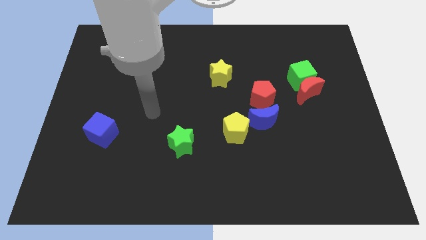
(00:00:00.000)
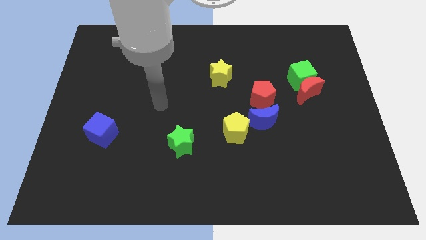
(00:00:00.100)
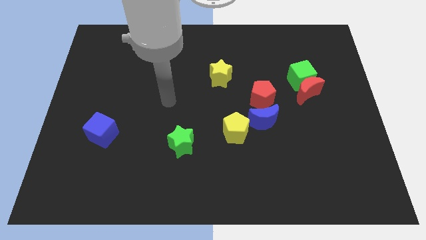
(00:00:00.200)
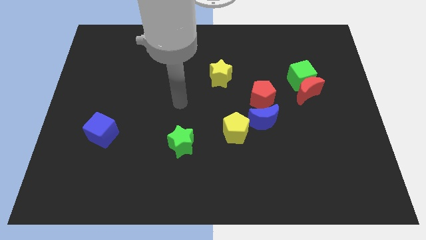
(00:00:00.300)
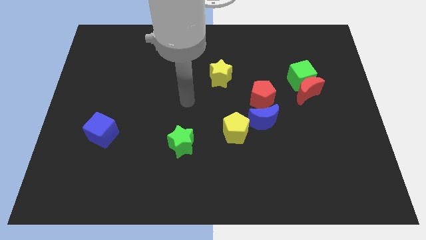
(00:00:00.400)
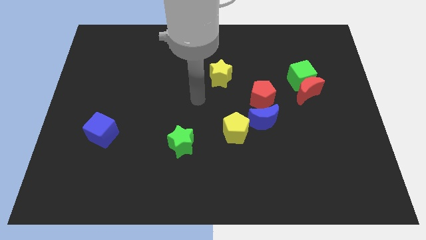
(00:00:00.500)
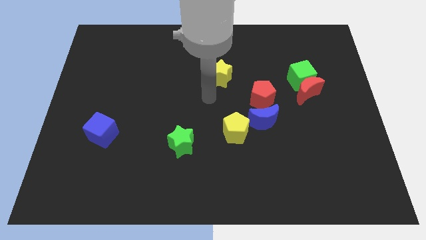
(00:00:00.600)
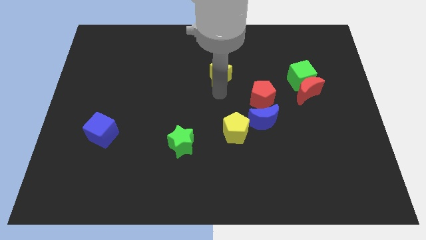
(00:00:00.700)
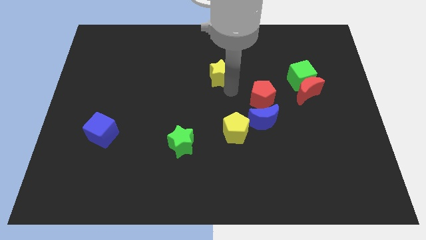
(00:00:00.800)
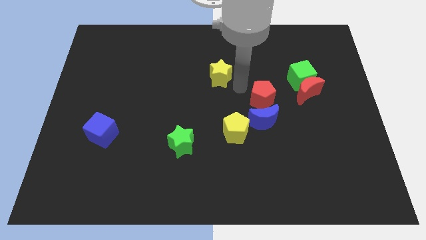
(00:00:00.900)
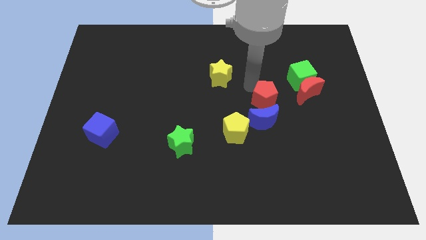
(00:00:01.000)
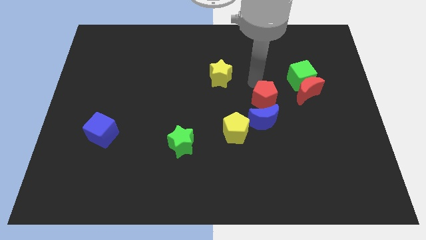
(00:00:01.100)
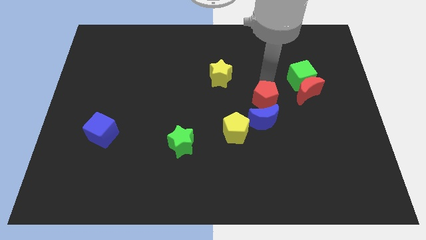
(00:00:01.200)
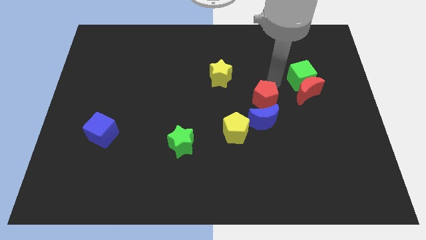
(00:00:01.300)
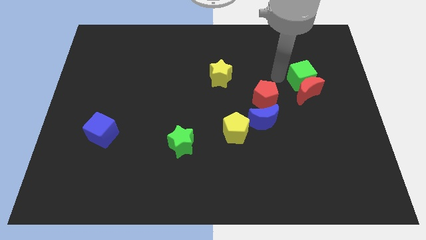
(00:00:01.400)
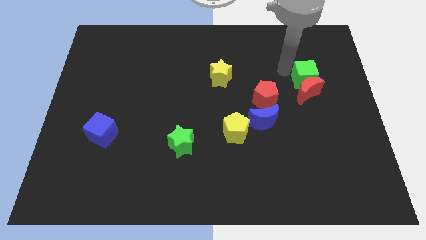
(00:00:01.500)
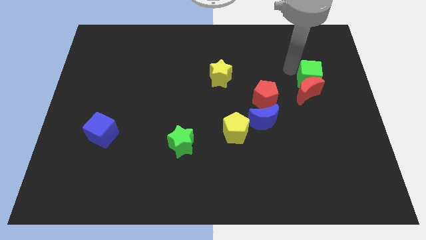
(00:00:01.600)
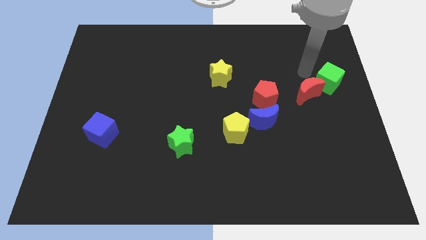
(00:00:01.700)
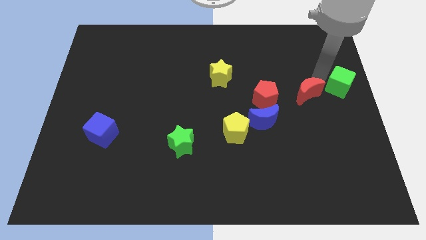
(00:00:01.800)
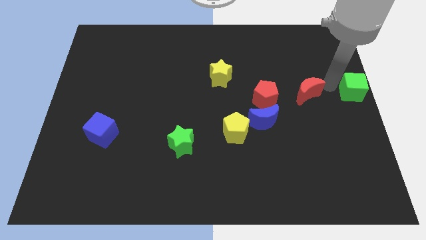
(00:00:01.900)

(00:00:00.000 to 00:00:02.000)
move the red moon away from the green cube

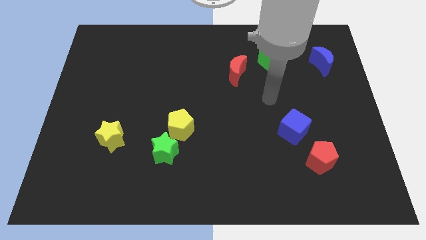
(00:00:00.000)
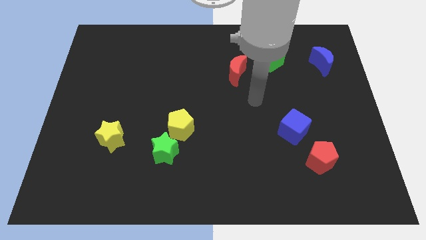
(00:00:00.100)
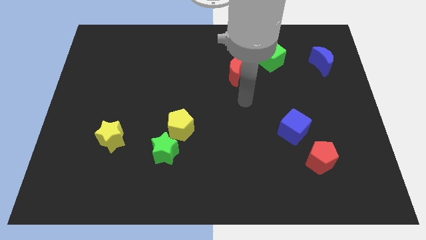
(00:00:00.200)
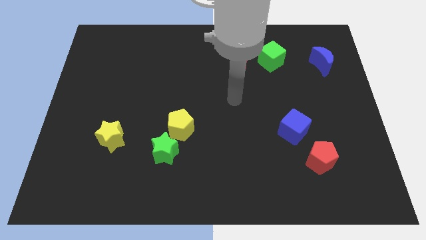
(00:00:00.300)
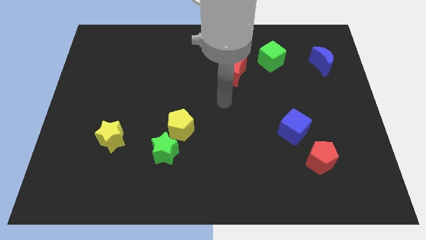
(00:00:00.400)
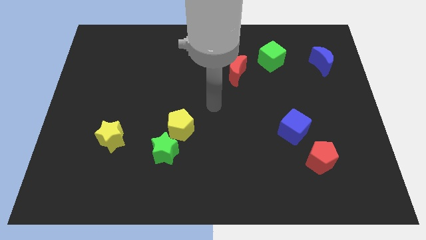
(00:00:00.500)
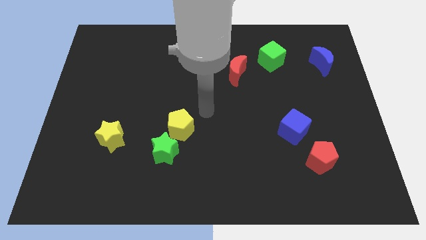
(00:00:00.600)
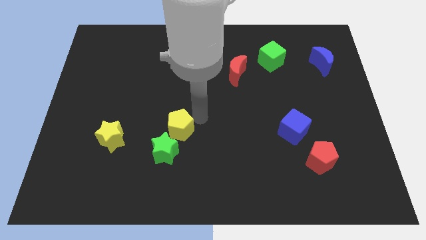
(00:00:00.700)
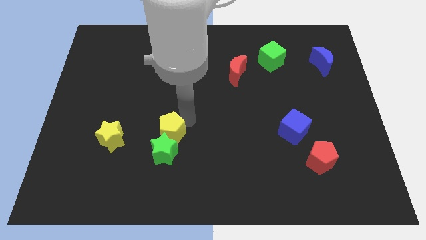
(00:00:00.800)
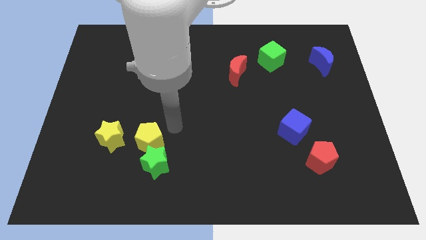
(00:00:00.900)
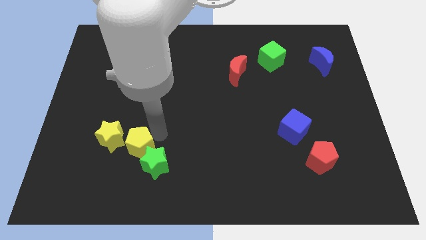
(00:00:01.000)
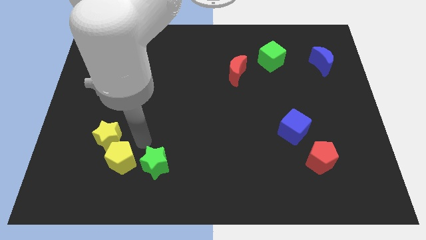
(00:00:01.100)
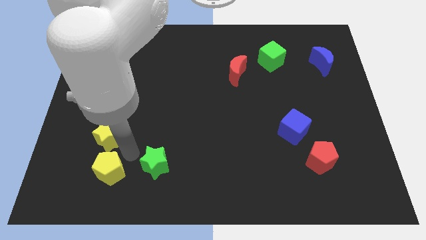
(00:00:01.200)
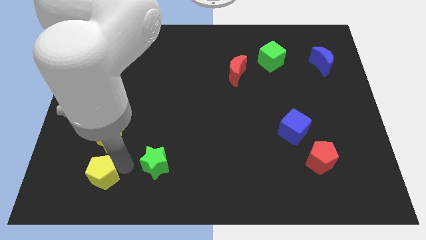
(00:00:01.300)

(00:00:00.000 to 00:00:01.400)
move the green star away from the yellow pentagon

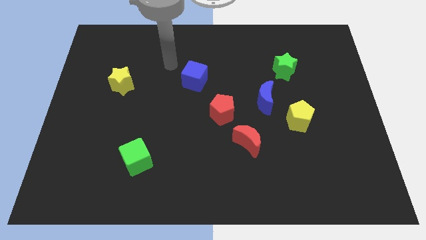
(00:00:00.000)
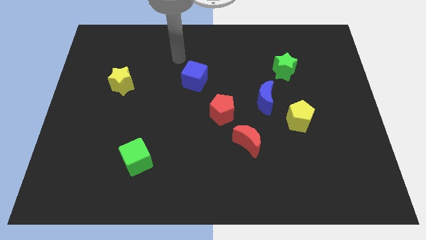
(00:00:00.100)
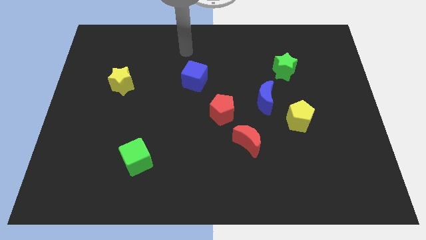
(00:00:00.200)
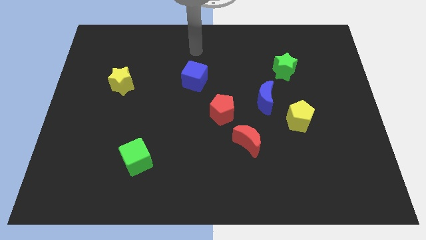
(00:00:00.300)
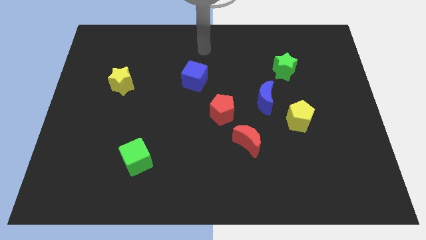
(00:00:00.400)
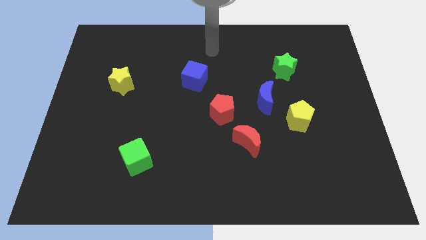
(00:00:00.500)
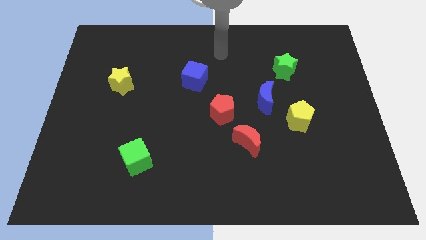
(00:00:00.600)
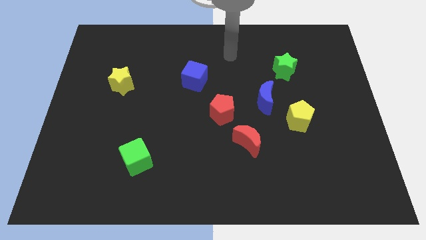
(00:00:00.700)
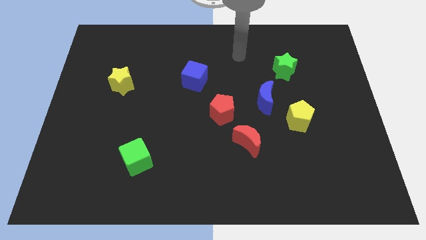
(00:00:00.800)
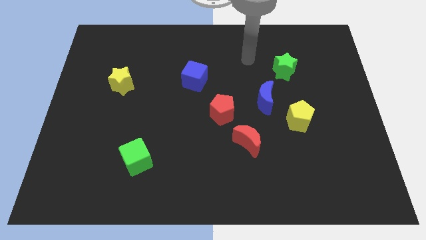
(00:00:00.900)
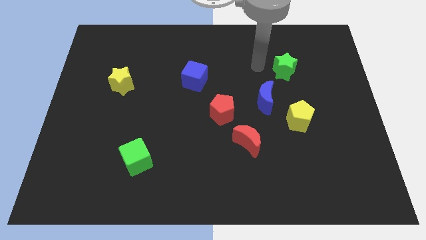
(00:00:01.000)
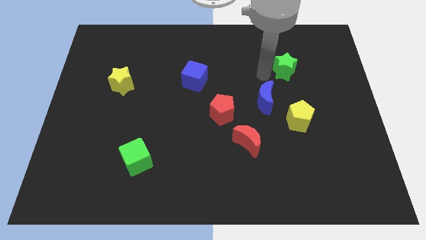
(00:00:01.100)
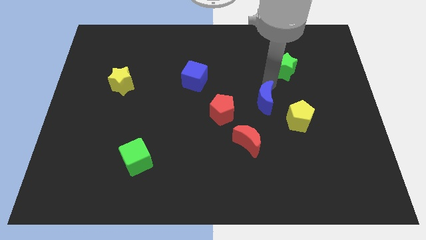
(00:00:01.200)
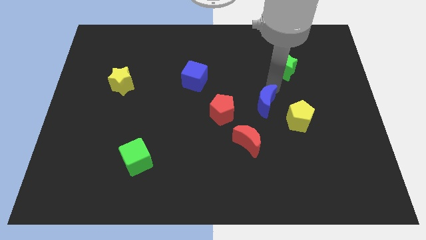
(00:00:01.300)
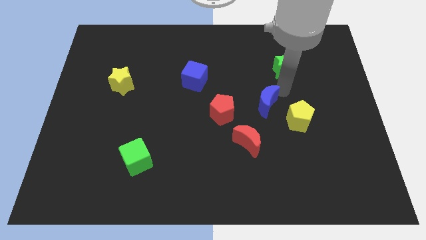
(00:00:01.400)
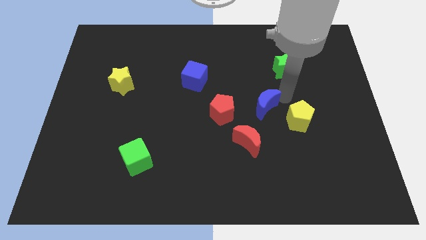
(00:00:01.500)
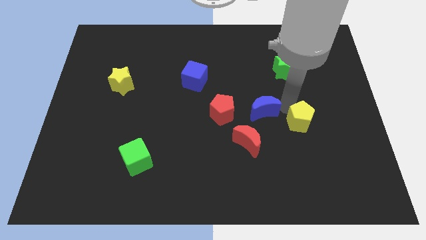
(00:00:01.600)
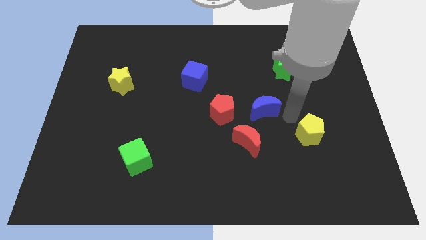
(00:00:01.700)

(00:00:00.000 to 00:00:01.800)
separate the blue moon from the yellow pentagon

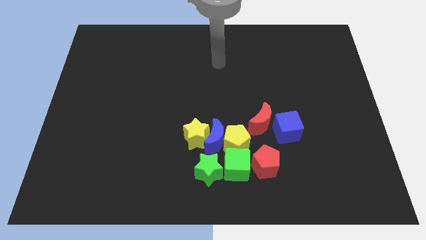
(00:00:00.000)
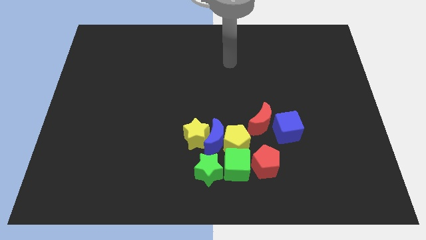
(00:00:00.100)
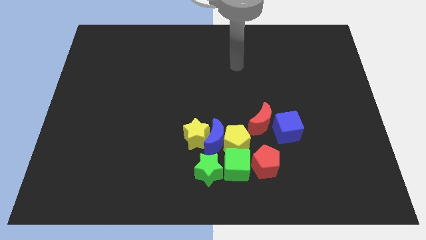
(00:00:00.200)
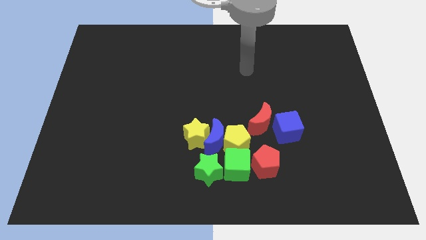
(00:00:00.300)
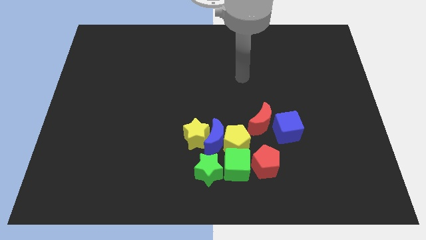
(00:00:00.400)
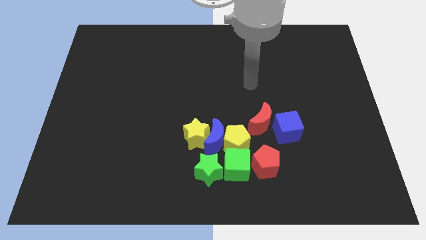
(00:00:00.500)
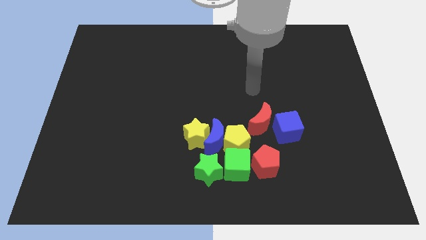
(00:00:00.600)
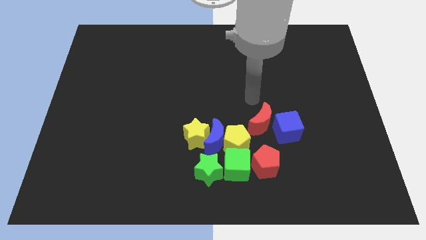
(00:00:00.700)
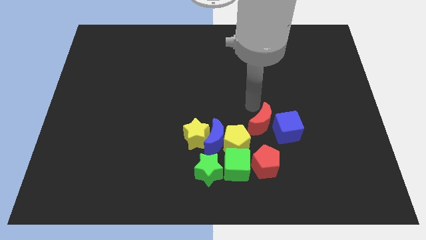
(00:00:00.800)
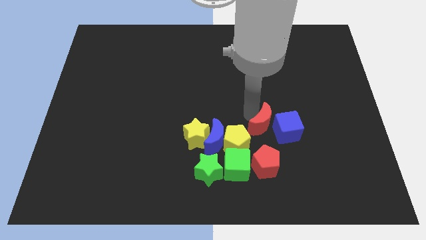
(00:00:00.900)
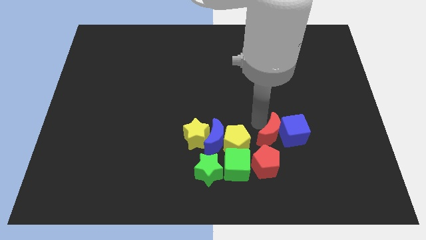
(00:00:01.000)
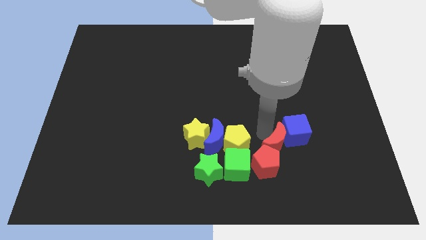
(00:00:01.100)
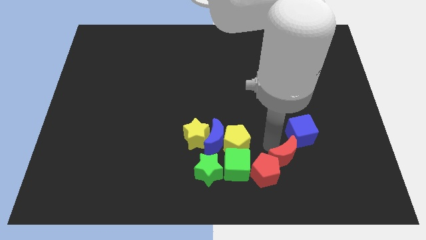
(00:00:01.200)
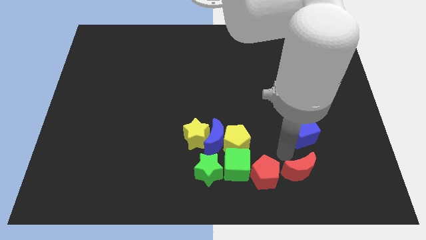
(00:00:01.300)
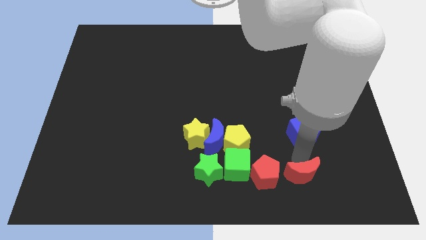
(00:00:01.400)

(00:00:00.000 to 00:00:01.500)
move the blue cube away from the red moon

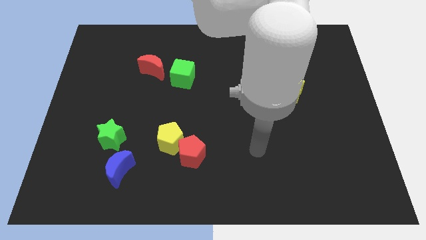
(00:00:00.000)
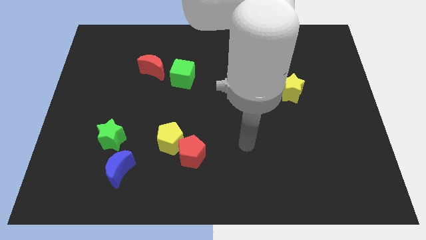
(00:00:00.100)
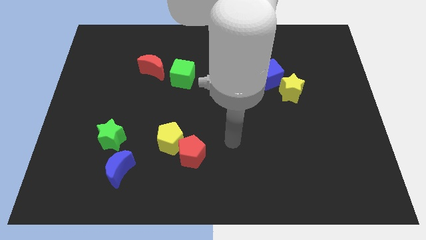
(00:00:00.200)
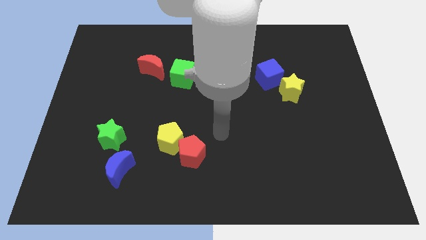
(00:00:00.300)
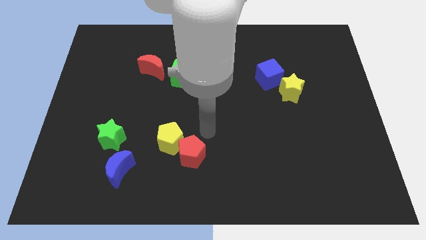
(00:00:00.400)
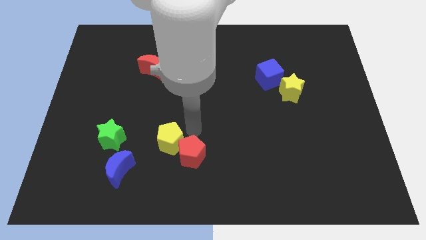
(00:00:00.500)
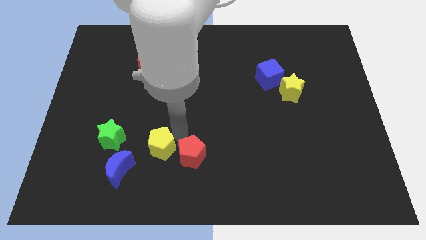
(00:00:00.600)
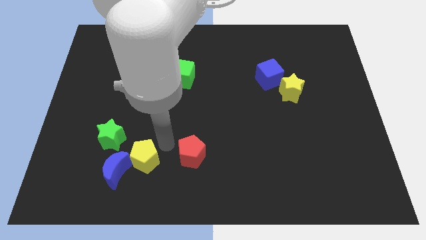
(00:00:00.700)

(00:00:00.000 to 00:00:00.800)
move the red pentagon away from the yellow pentagon

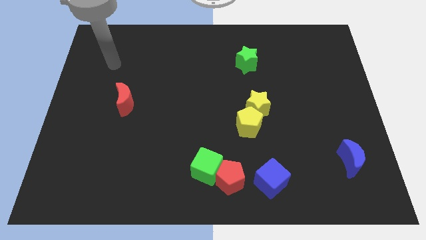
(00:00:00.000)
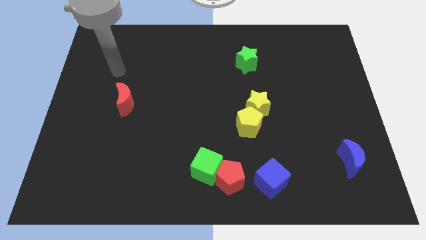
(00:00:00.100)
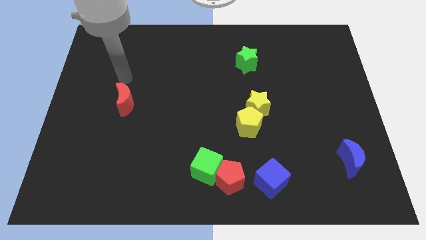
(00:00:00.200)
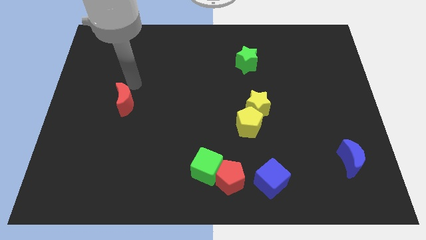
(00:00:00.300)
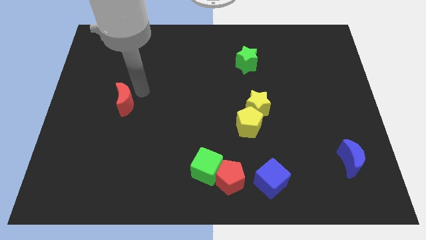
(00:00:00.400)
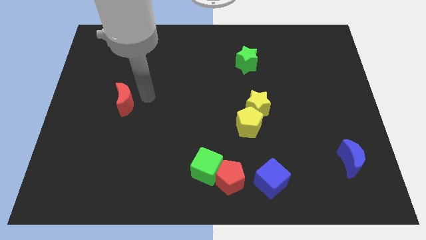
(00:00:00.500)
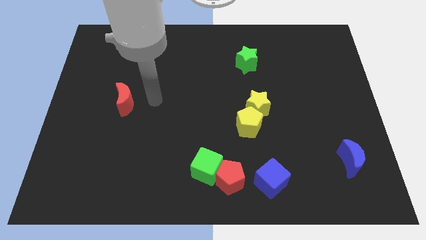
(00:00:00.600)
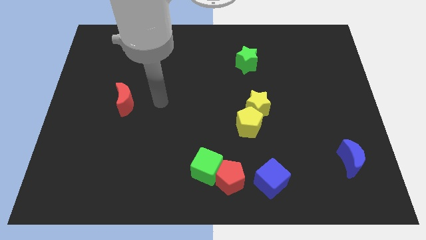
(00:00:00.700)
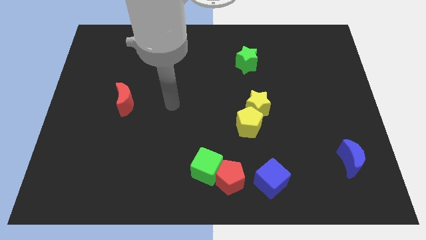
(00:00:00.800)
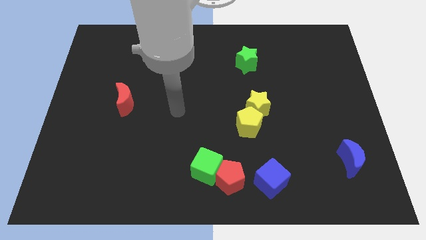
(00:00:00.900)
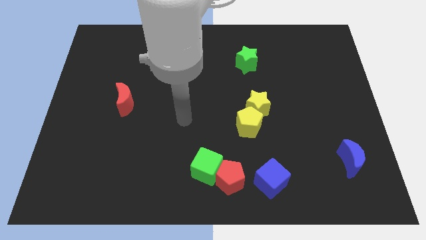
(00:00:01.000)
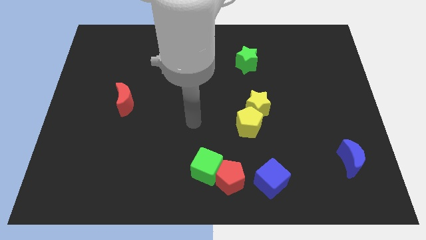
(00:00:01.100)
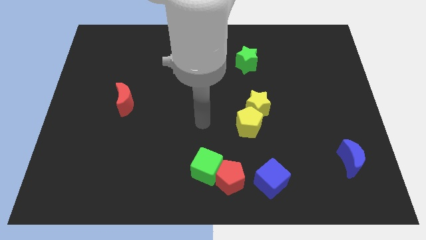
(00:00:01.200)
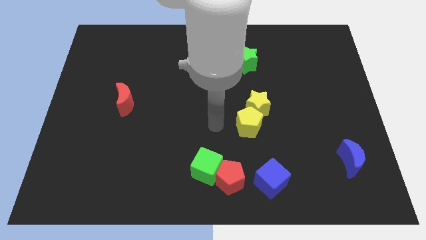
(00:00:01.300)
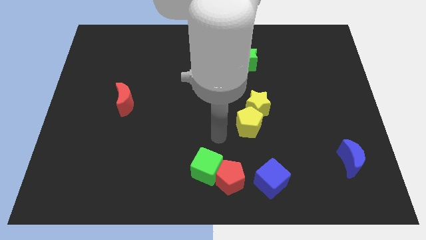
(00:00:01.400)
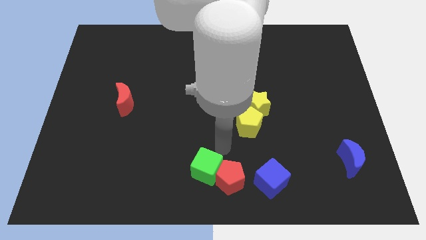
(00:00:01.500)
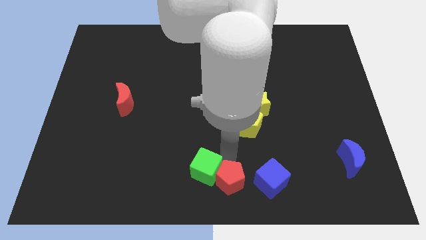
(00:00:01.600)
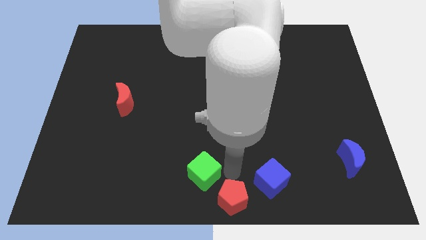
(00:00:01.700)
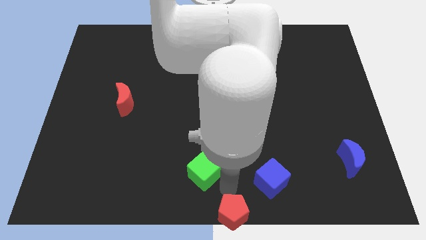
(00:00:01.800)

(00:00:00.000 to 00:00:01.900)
separate the green cube from the red pentagon
